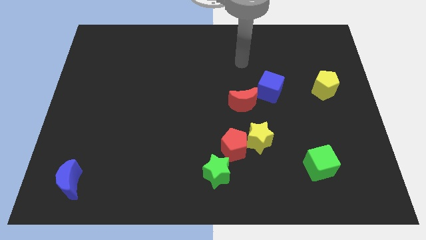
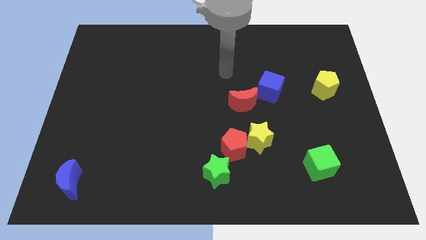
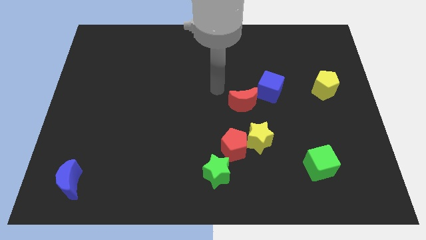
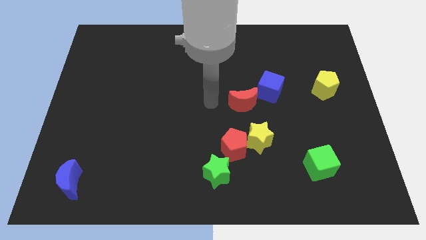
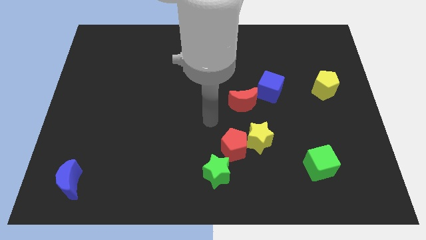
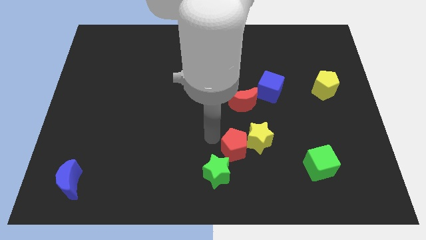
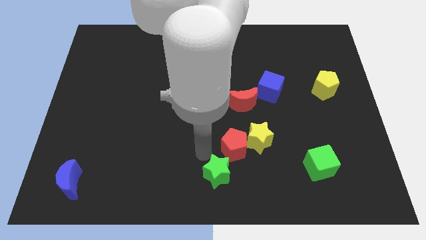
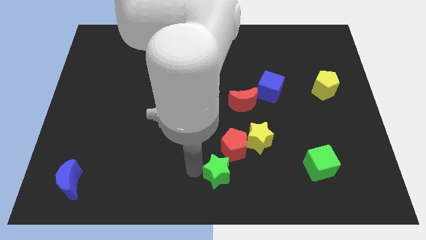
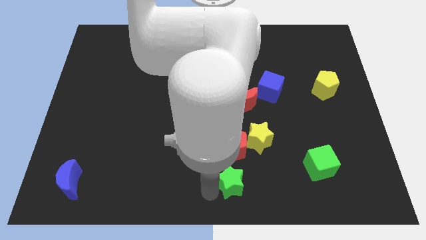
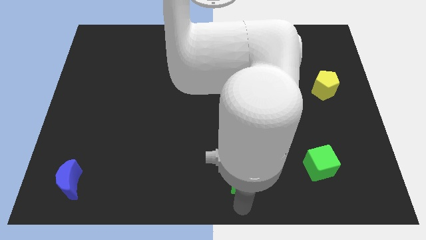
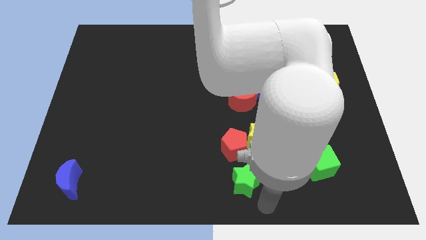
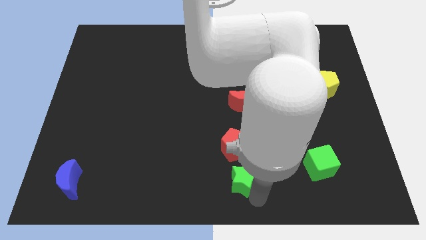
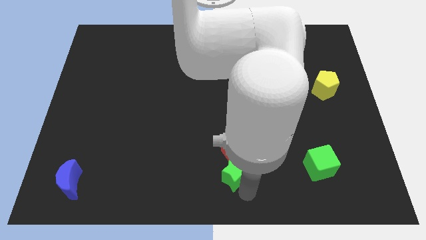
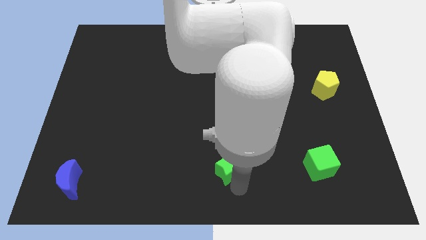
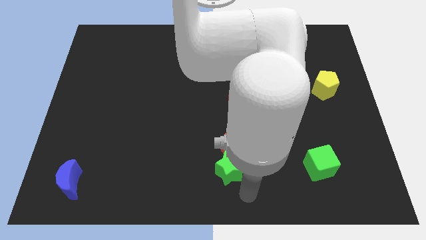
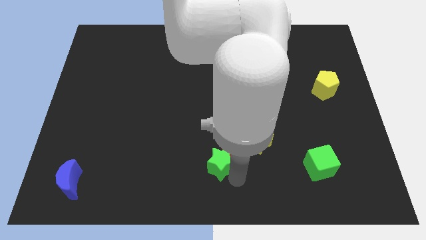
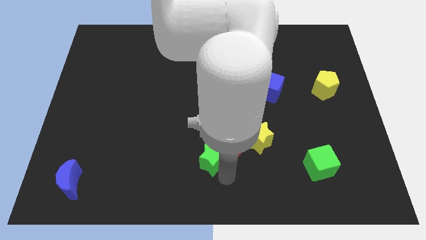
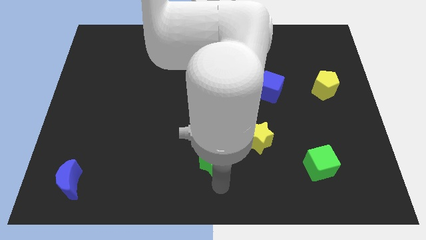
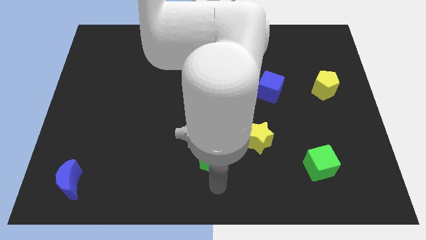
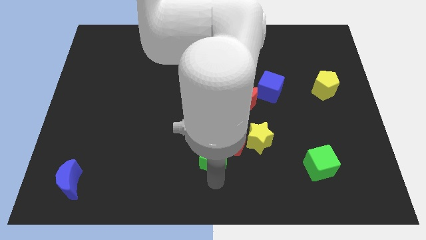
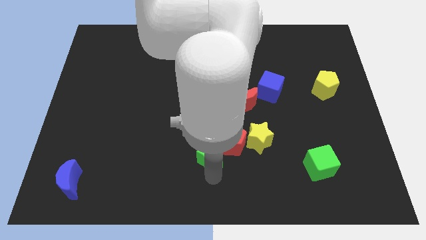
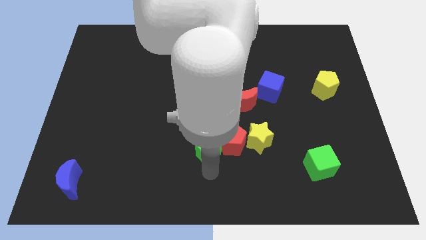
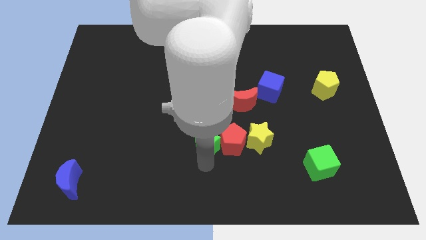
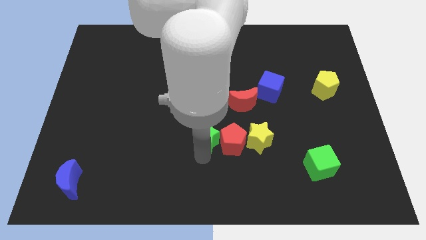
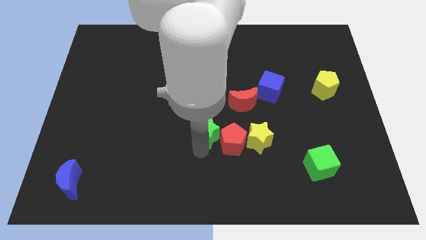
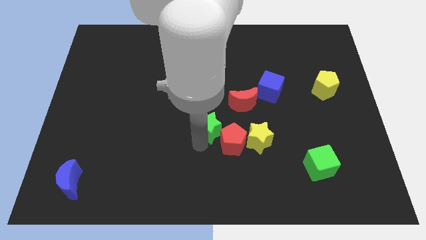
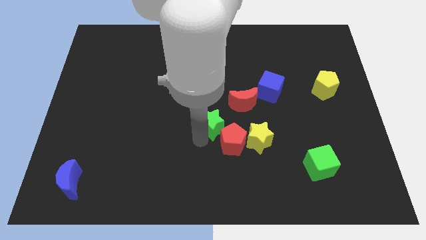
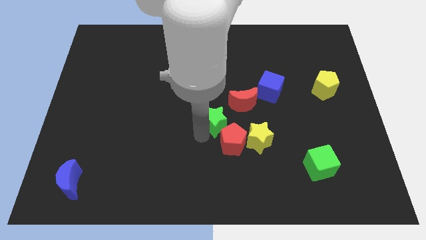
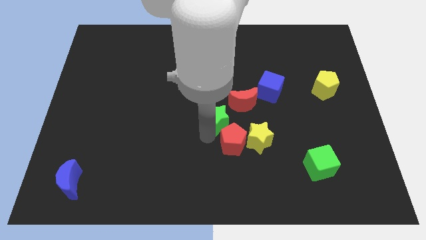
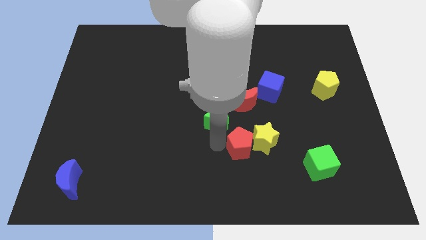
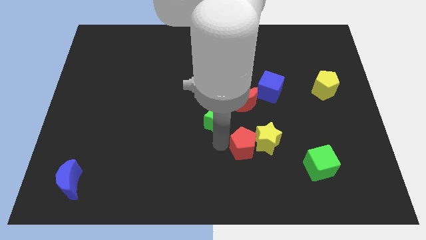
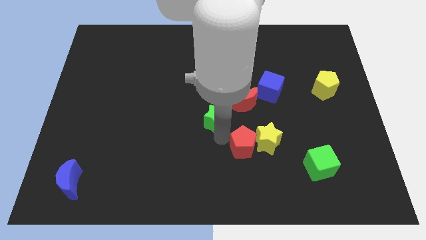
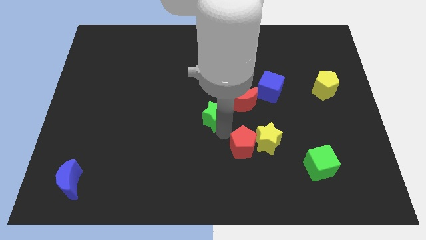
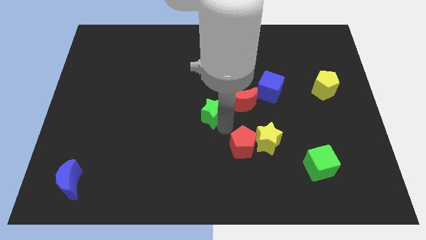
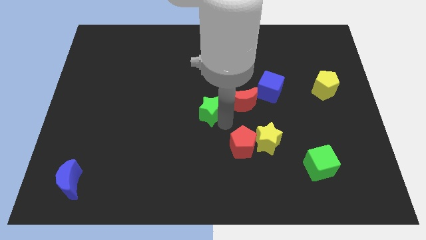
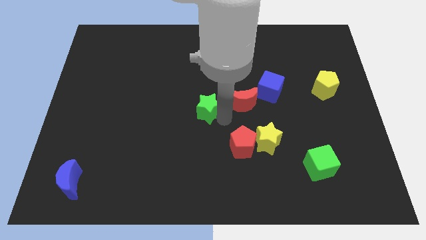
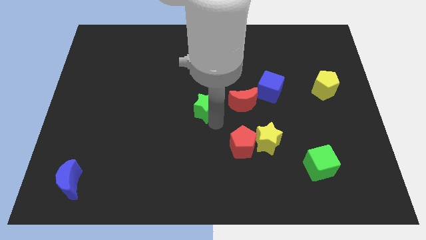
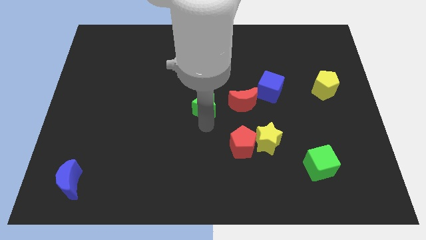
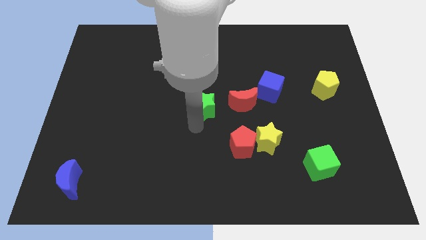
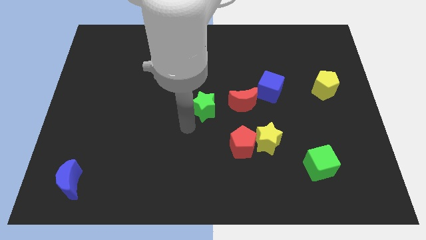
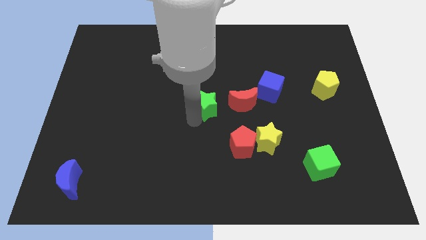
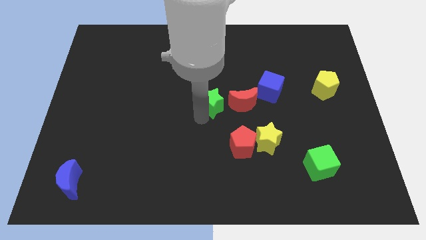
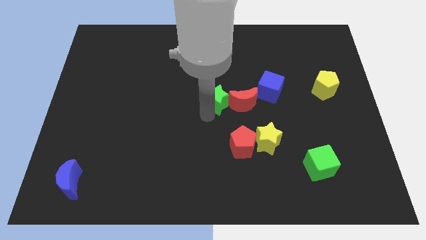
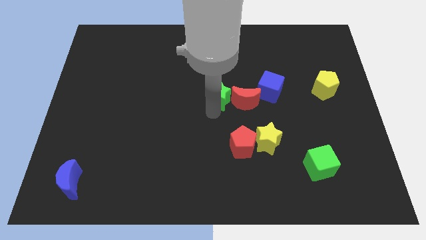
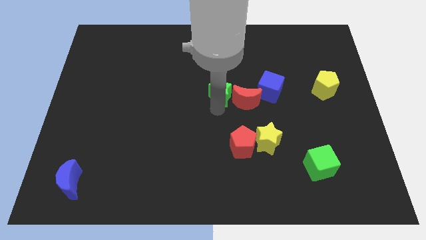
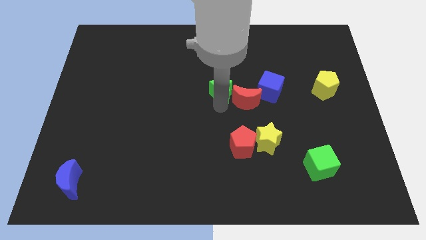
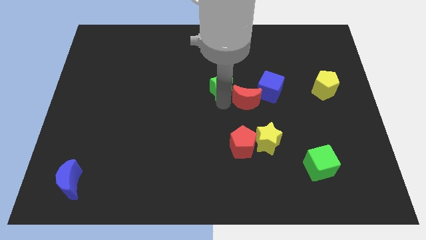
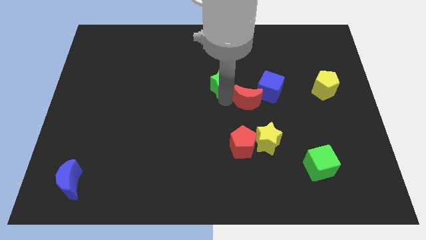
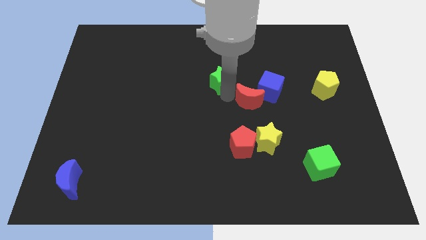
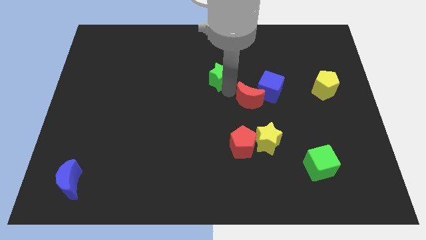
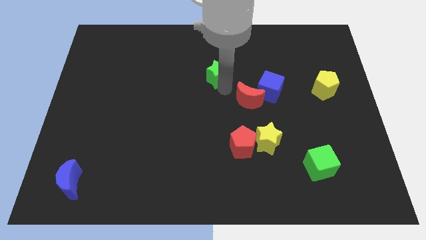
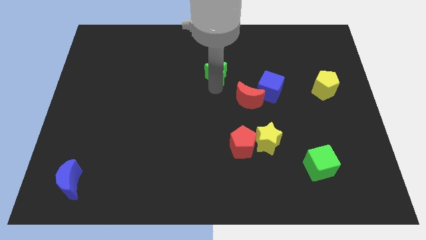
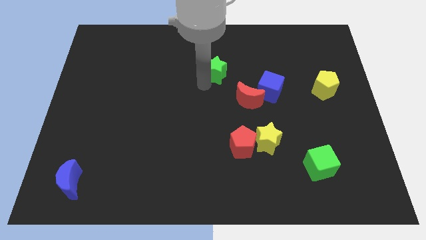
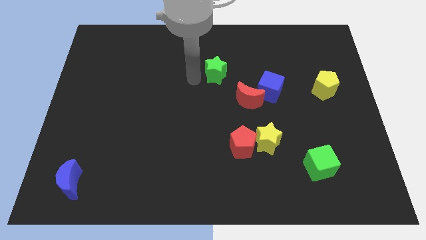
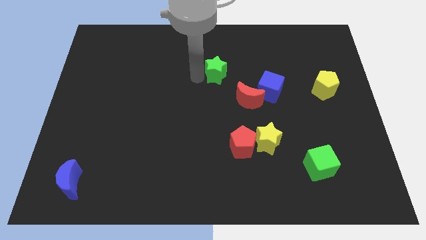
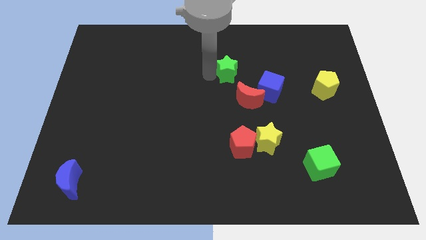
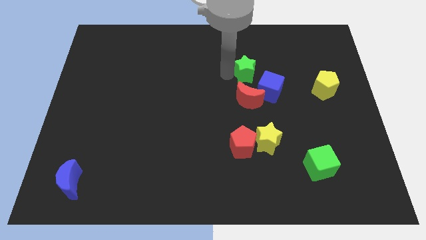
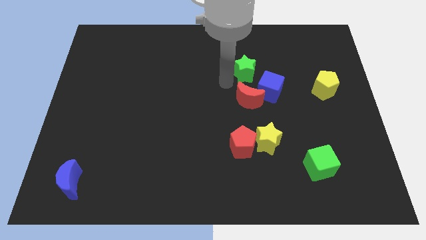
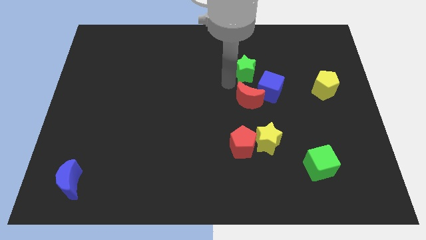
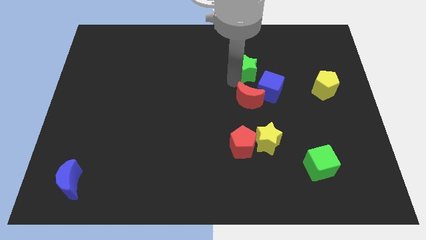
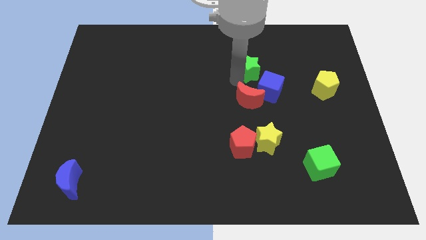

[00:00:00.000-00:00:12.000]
put the green star to the top of the blue cube
